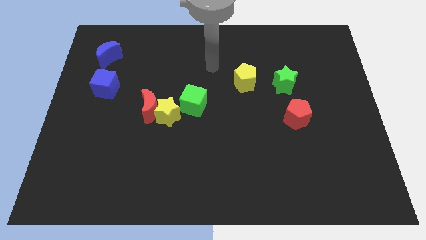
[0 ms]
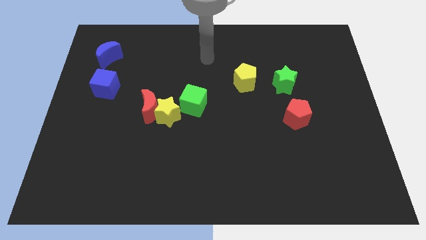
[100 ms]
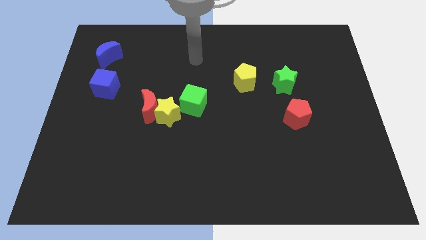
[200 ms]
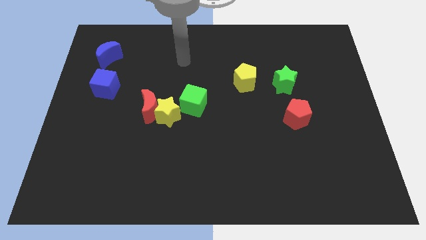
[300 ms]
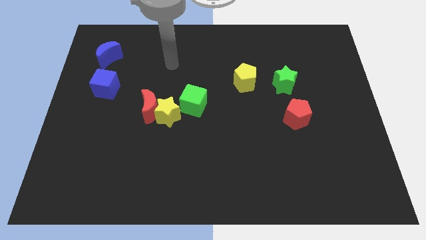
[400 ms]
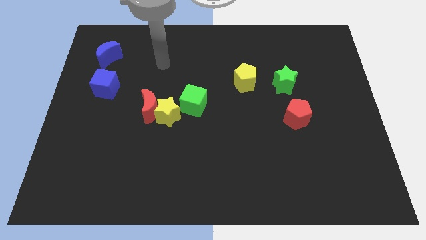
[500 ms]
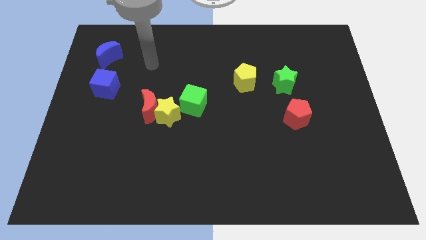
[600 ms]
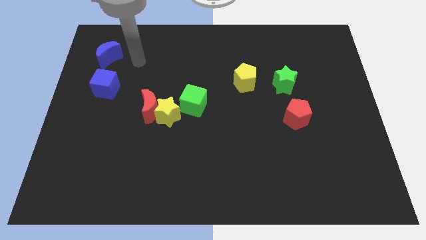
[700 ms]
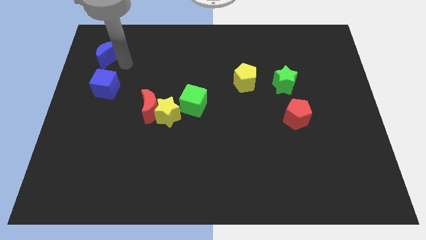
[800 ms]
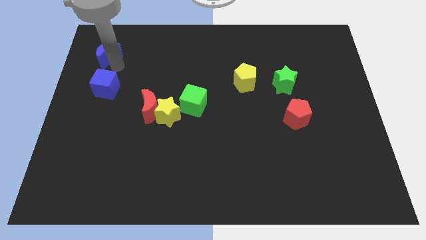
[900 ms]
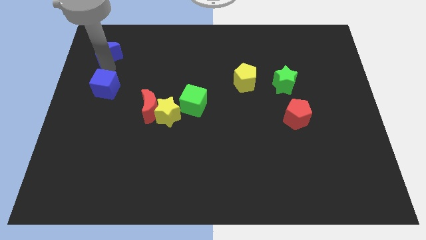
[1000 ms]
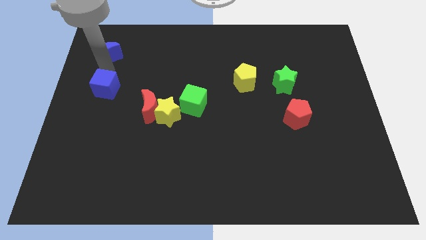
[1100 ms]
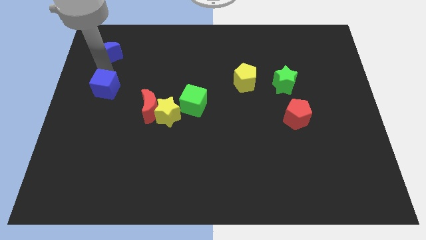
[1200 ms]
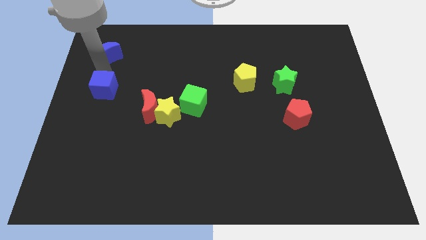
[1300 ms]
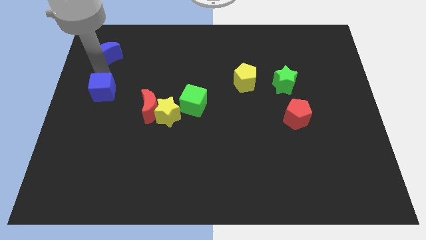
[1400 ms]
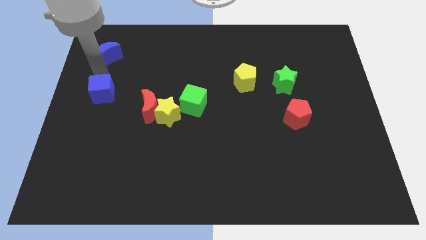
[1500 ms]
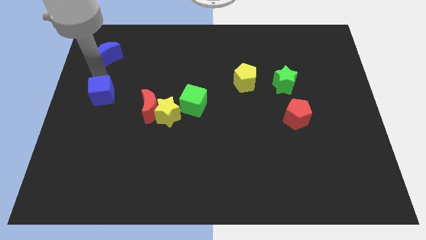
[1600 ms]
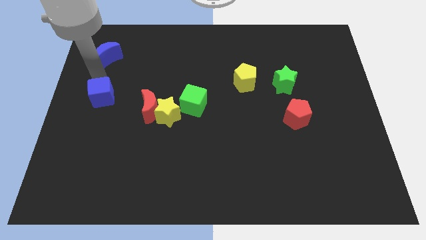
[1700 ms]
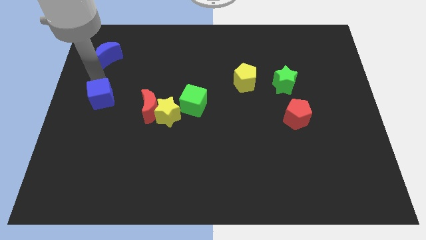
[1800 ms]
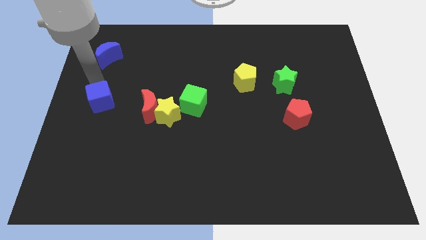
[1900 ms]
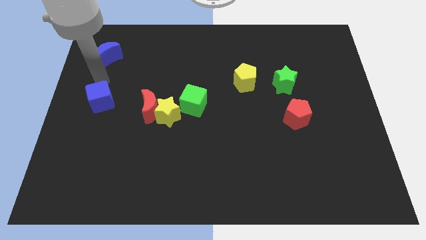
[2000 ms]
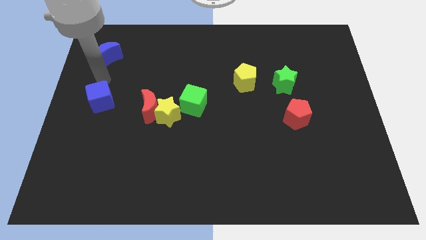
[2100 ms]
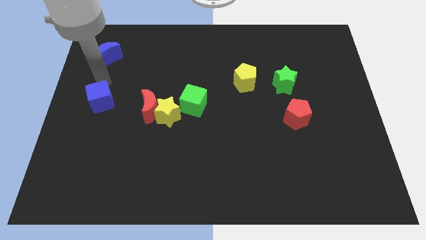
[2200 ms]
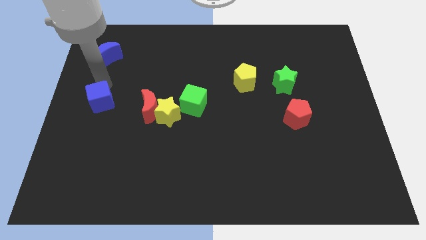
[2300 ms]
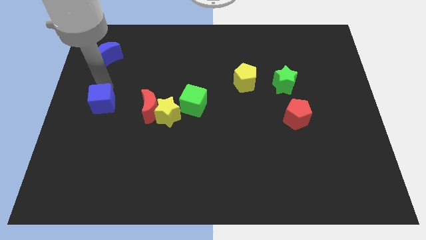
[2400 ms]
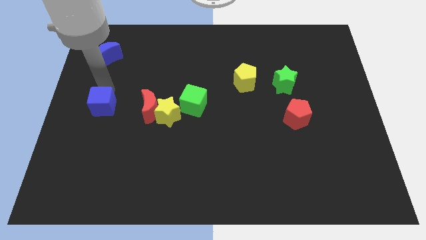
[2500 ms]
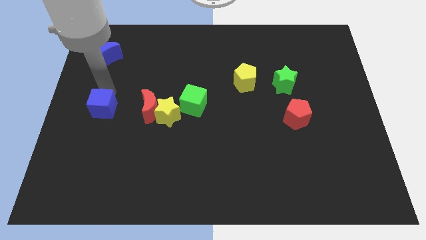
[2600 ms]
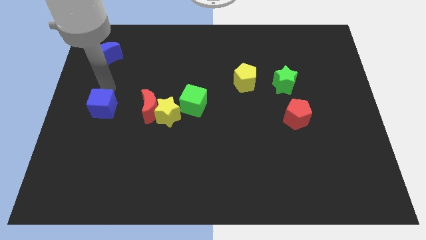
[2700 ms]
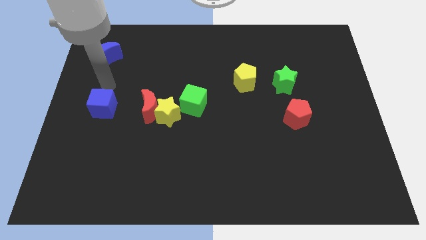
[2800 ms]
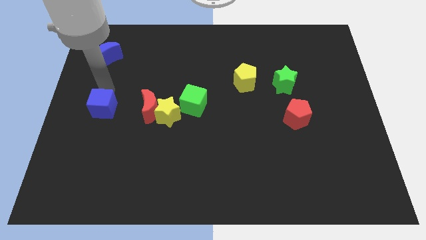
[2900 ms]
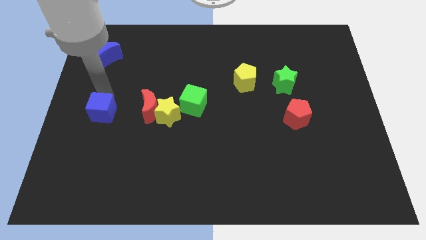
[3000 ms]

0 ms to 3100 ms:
push the blue cube a bit down

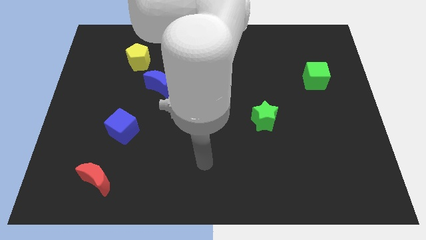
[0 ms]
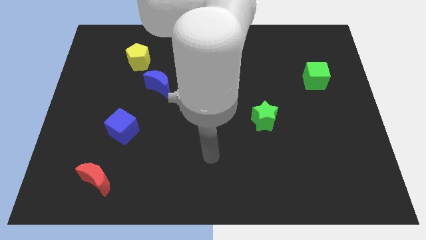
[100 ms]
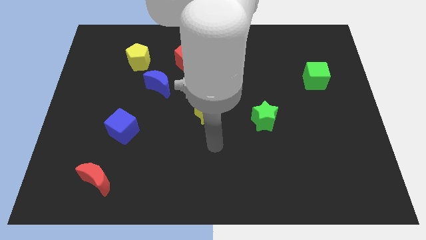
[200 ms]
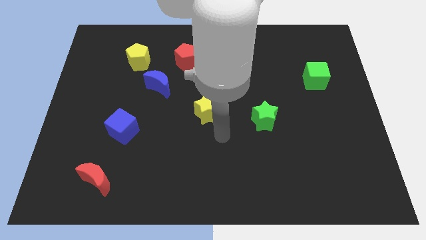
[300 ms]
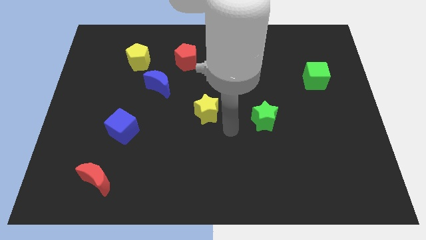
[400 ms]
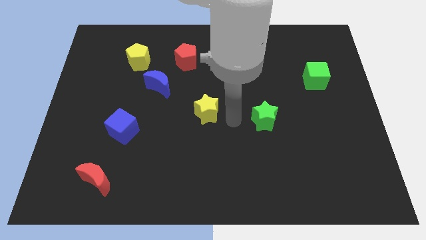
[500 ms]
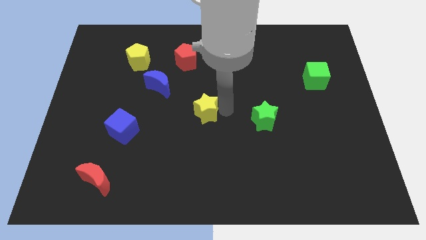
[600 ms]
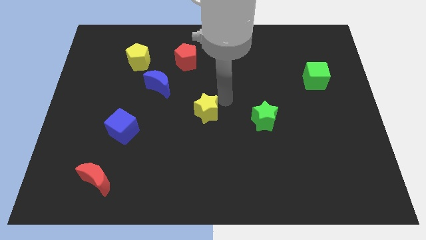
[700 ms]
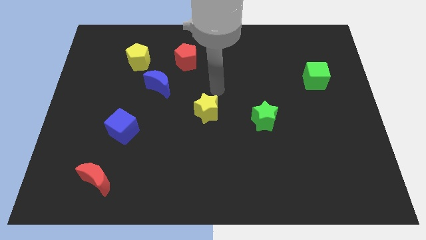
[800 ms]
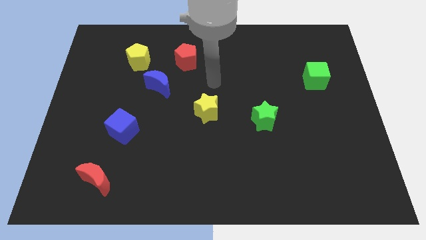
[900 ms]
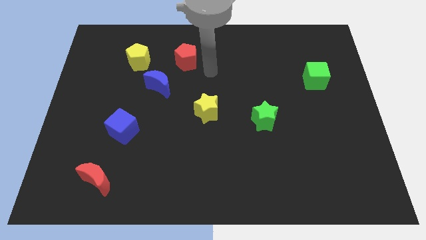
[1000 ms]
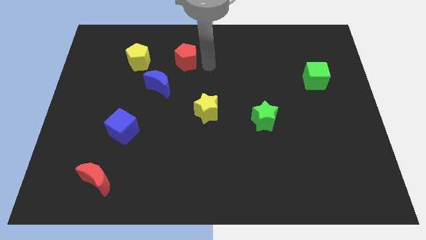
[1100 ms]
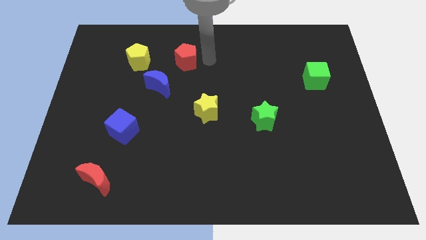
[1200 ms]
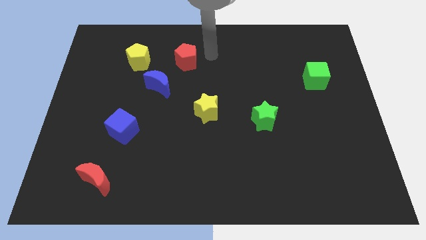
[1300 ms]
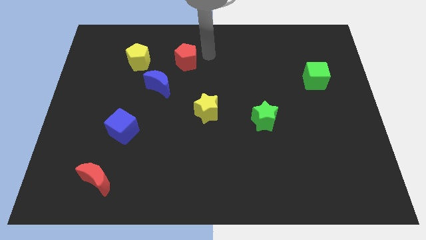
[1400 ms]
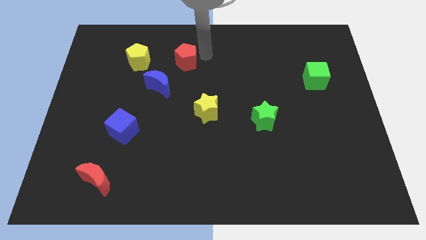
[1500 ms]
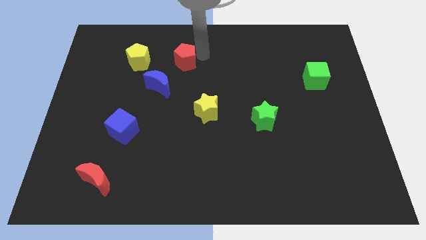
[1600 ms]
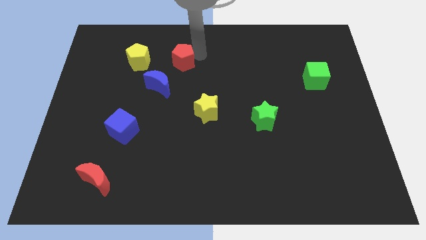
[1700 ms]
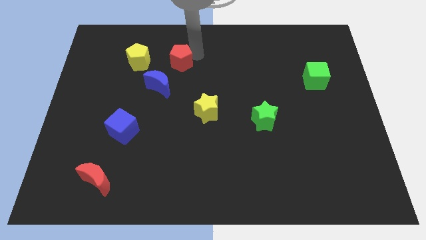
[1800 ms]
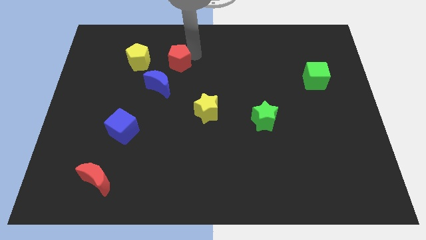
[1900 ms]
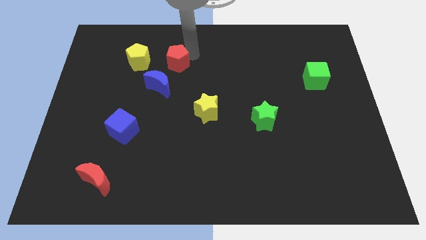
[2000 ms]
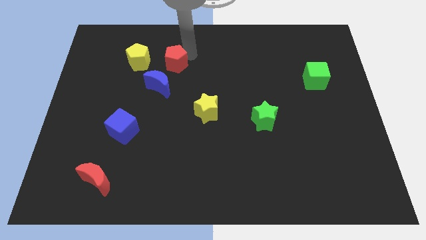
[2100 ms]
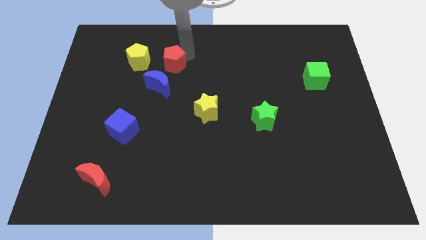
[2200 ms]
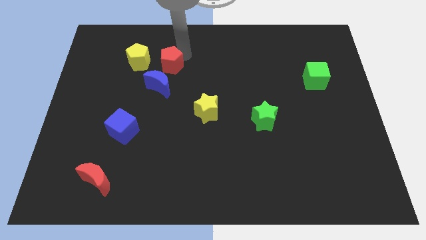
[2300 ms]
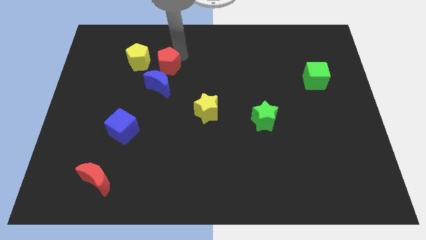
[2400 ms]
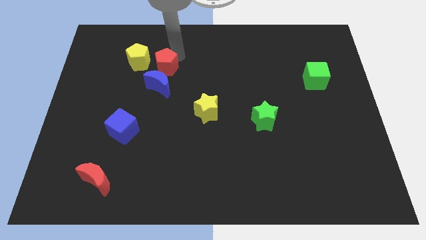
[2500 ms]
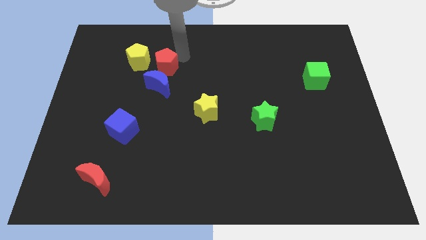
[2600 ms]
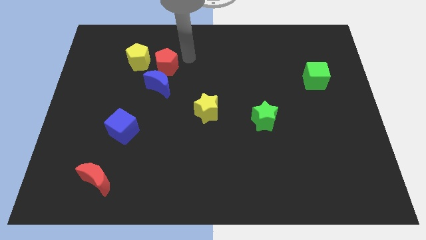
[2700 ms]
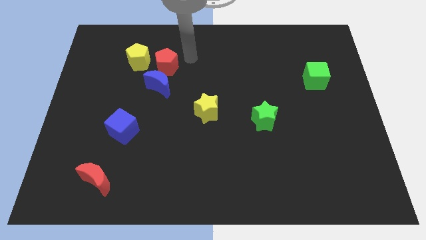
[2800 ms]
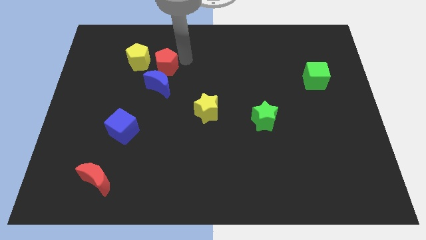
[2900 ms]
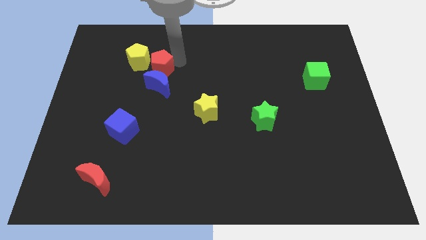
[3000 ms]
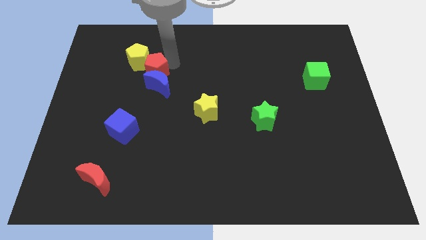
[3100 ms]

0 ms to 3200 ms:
move the red pentagon somewhat to the left

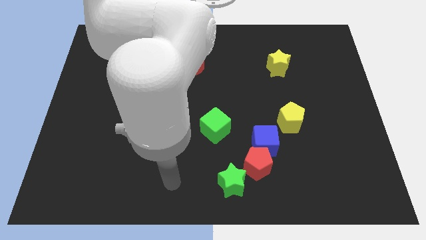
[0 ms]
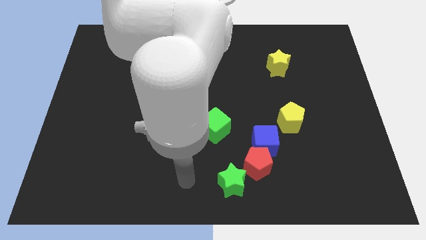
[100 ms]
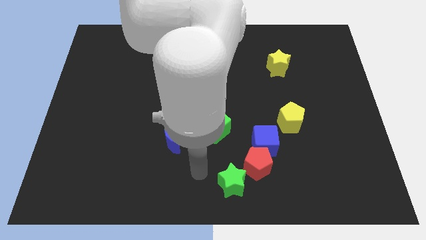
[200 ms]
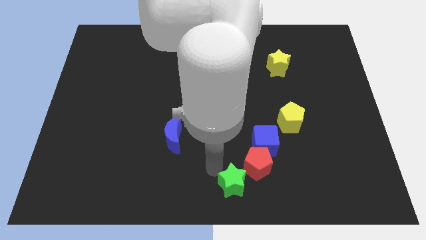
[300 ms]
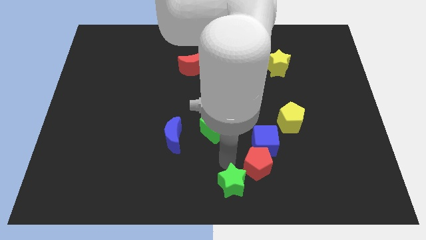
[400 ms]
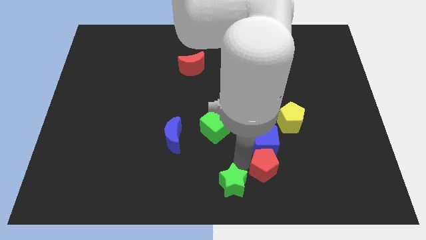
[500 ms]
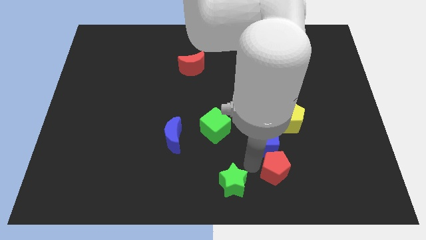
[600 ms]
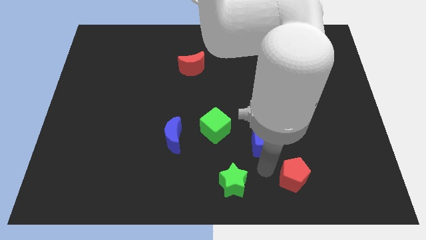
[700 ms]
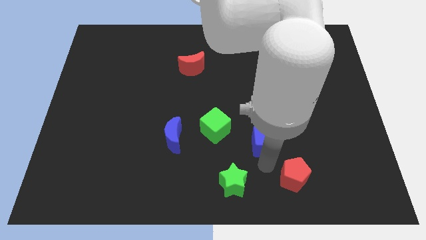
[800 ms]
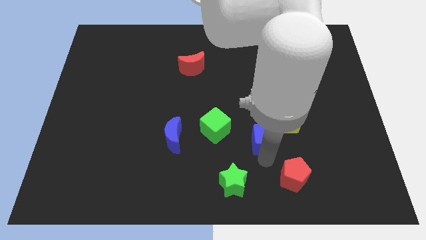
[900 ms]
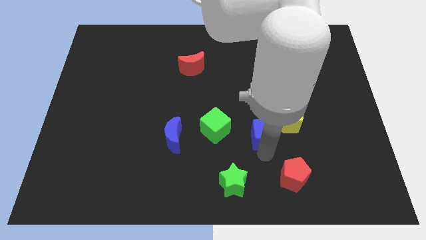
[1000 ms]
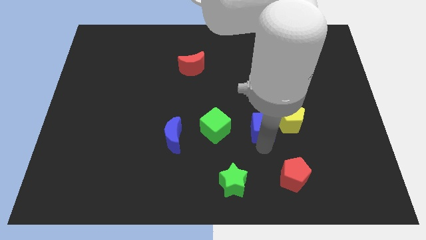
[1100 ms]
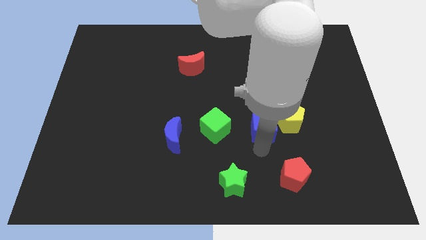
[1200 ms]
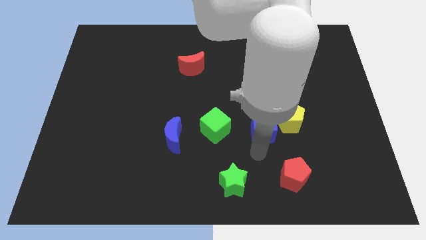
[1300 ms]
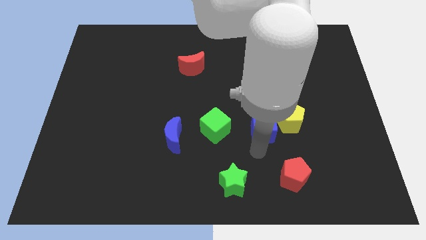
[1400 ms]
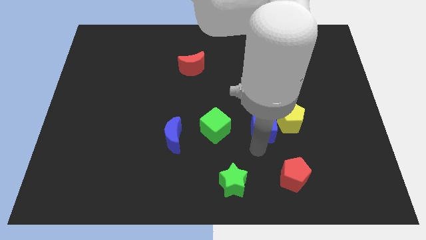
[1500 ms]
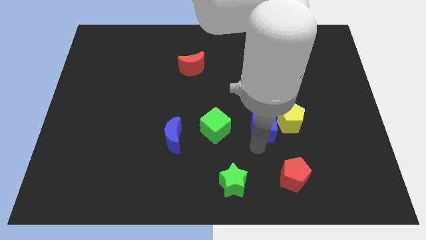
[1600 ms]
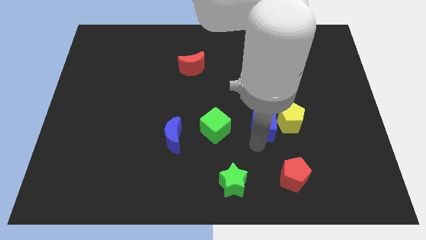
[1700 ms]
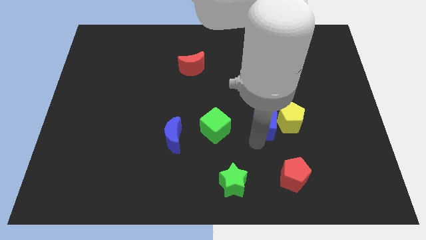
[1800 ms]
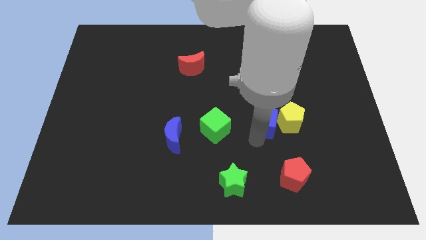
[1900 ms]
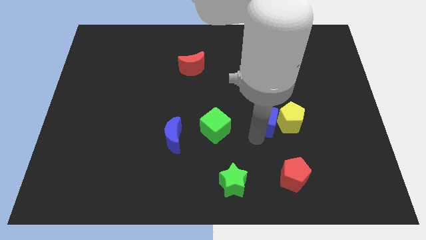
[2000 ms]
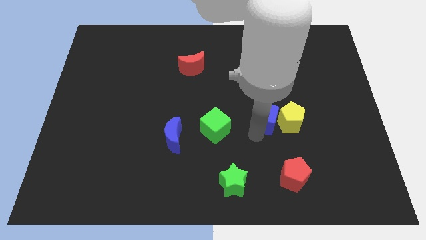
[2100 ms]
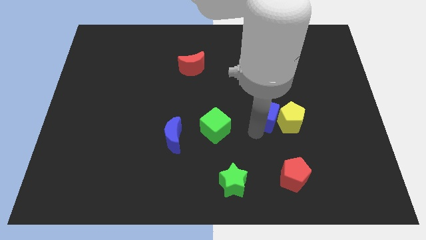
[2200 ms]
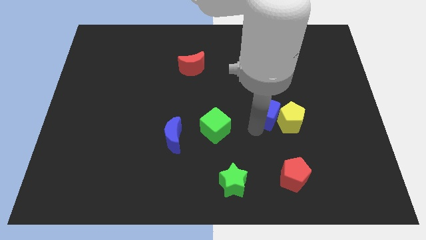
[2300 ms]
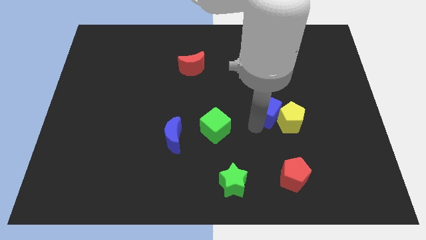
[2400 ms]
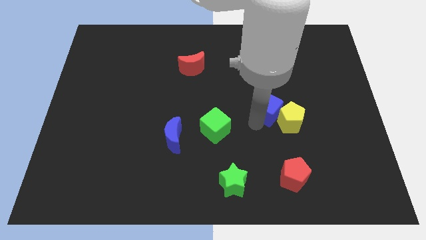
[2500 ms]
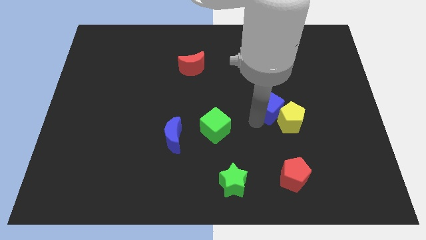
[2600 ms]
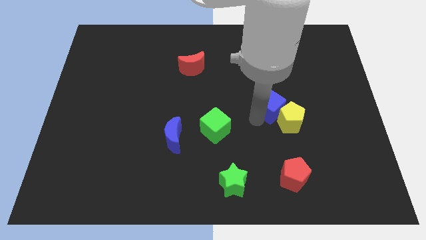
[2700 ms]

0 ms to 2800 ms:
slightly push the blue cube diagonally up and right
